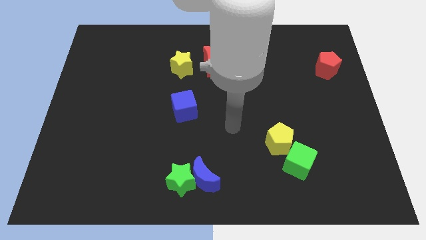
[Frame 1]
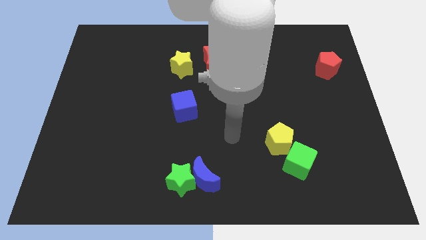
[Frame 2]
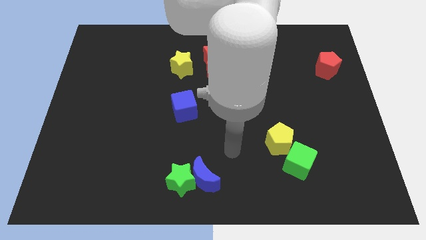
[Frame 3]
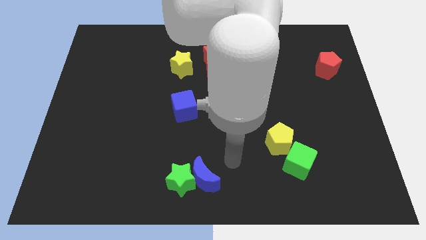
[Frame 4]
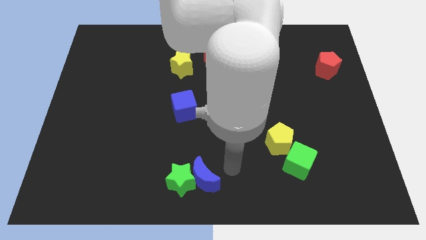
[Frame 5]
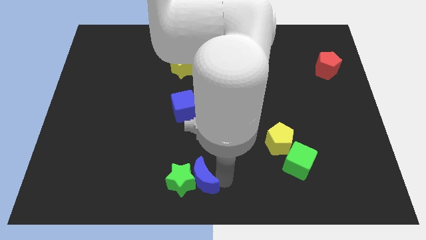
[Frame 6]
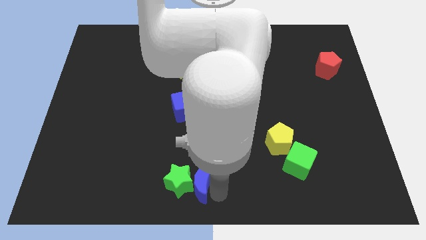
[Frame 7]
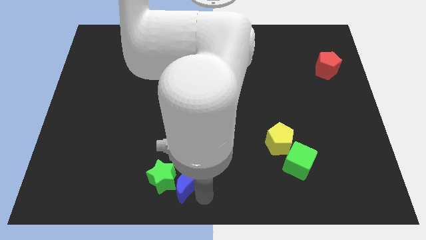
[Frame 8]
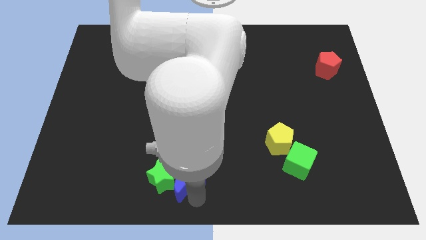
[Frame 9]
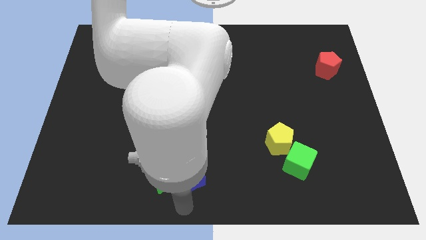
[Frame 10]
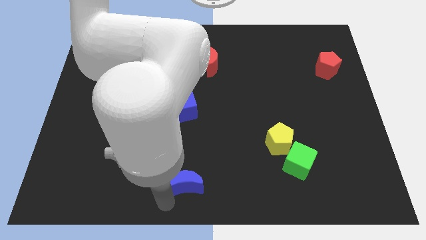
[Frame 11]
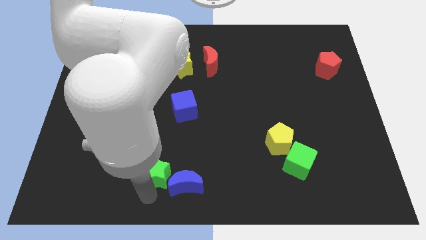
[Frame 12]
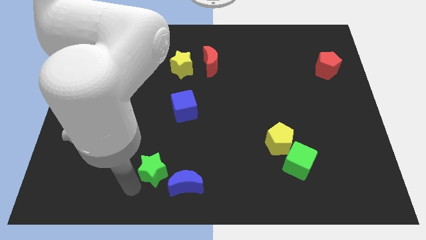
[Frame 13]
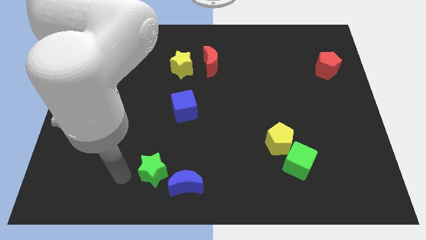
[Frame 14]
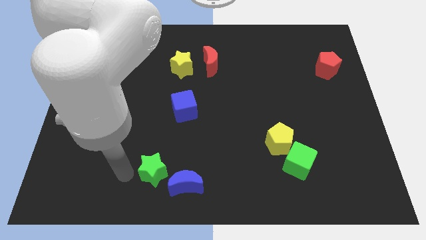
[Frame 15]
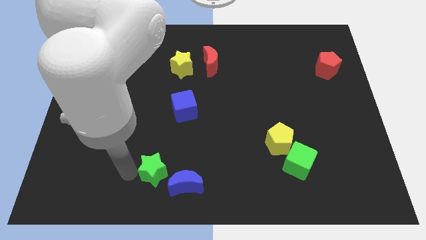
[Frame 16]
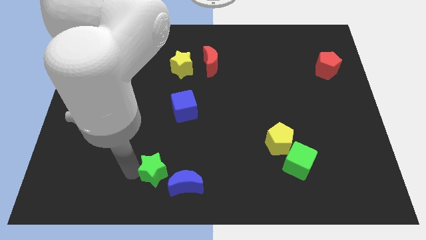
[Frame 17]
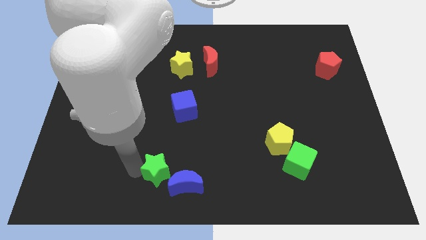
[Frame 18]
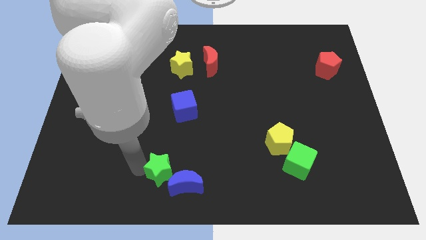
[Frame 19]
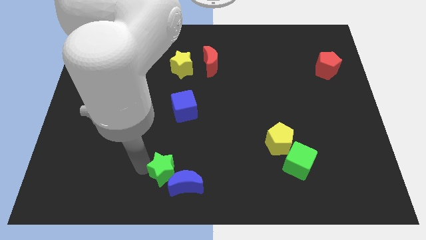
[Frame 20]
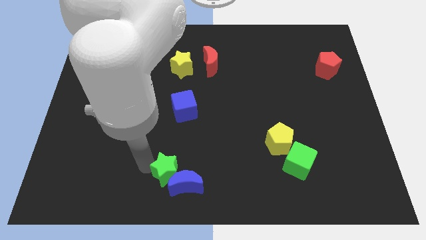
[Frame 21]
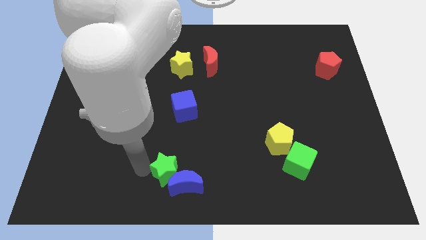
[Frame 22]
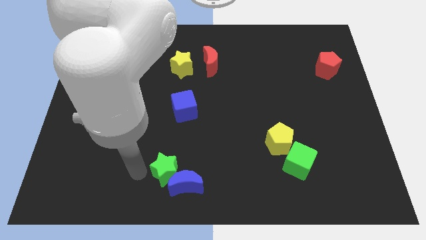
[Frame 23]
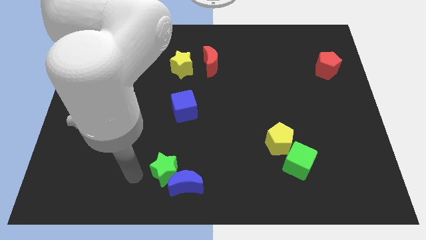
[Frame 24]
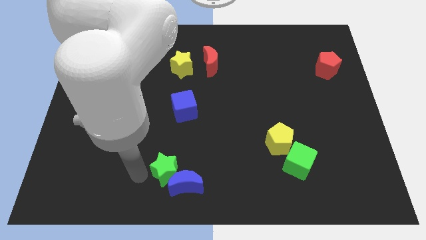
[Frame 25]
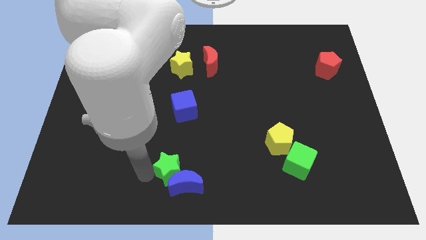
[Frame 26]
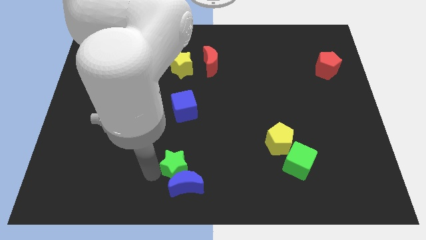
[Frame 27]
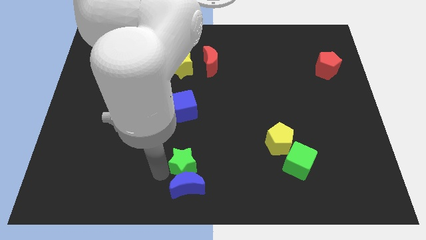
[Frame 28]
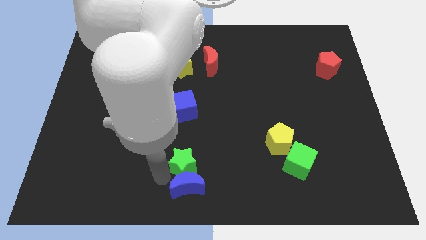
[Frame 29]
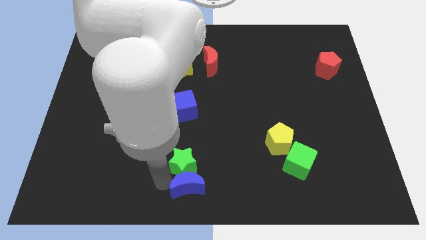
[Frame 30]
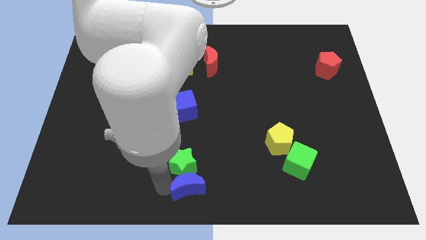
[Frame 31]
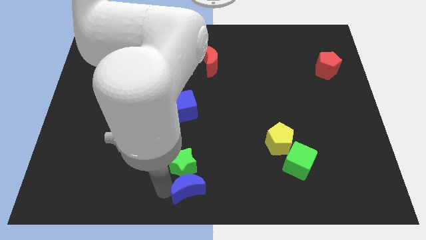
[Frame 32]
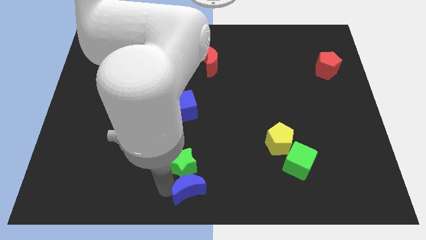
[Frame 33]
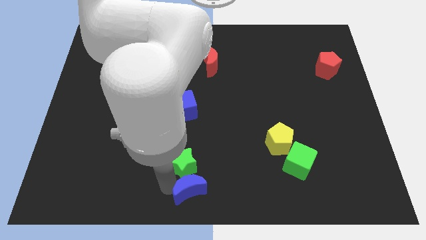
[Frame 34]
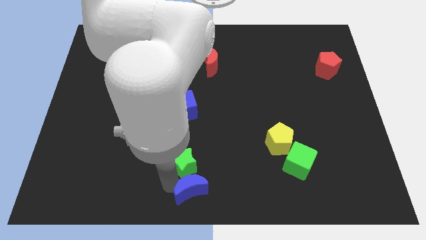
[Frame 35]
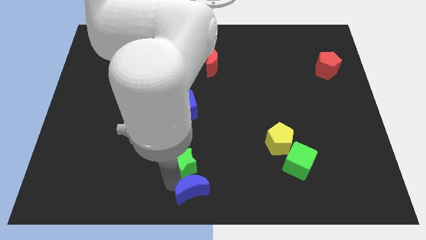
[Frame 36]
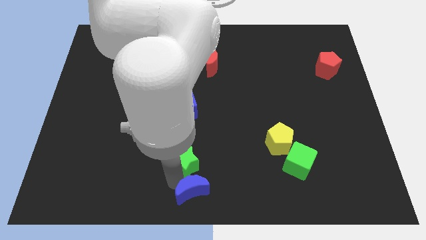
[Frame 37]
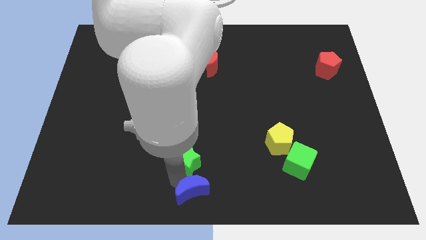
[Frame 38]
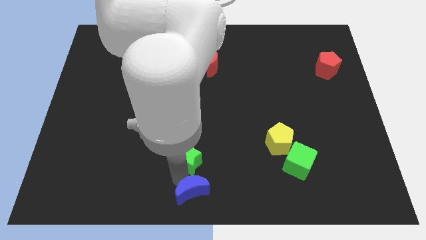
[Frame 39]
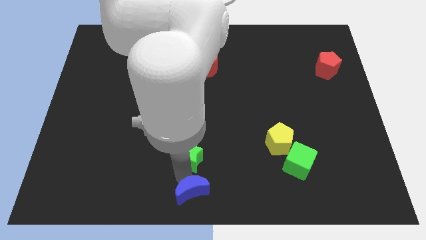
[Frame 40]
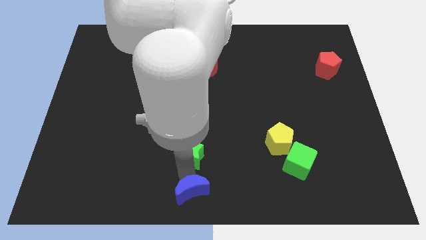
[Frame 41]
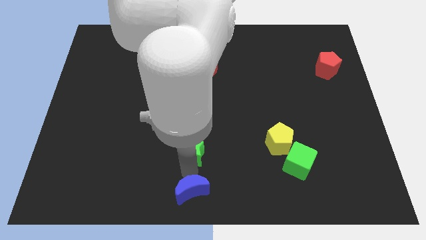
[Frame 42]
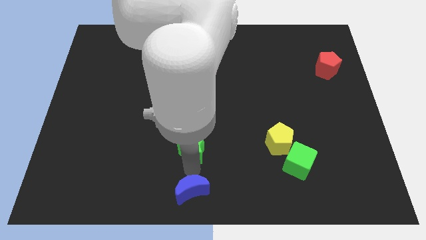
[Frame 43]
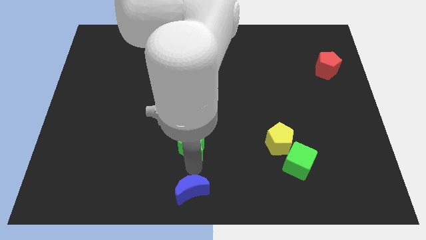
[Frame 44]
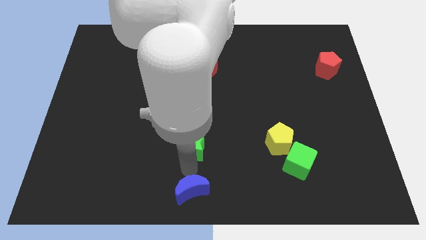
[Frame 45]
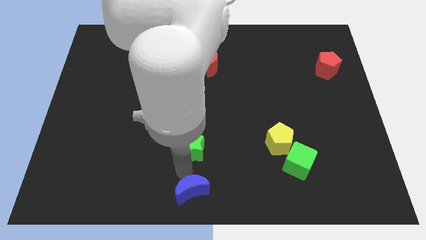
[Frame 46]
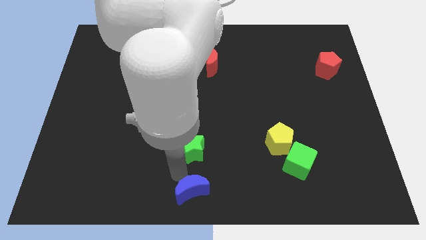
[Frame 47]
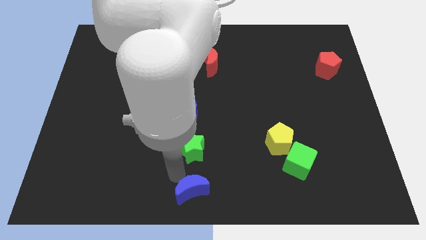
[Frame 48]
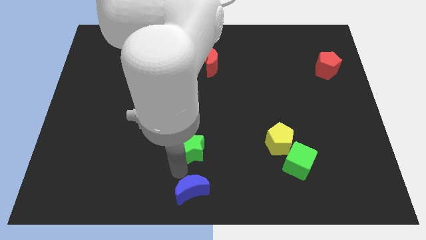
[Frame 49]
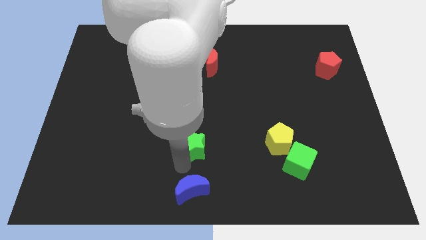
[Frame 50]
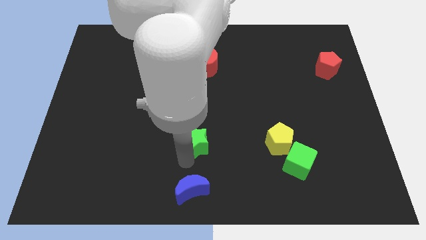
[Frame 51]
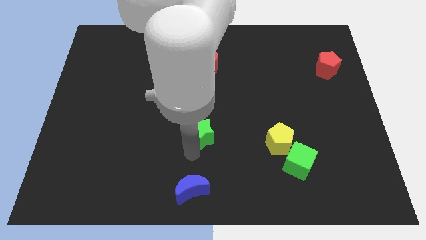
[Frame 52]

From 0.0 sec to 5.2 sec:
push the green star to the middle of the board

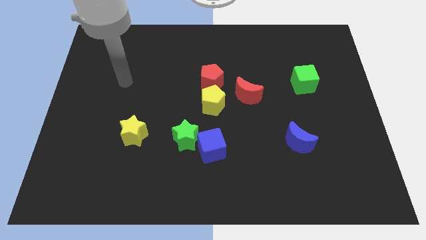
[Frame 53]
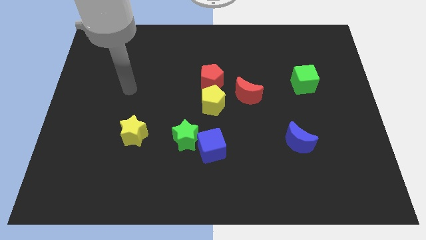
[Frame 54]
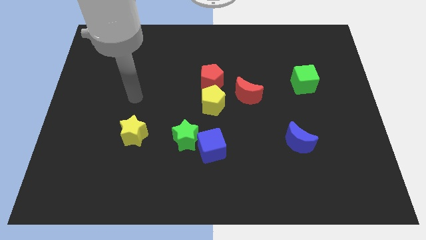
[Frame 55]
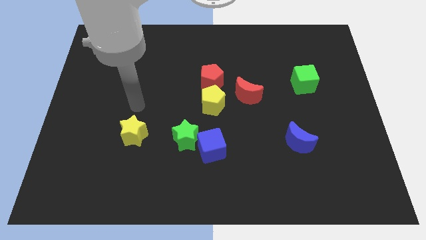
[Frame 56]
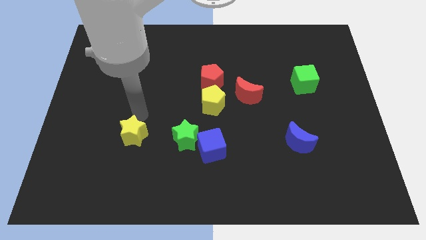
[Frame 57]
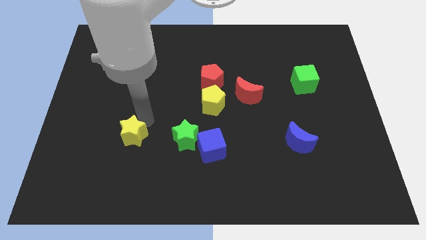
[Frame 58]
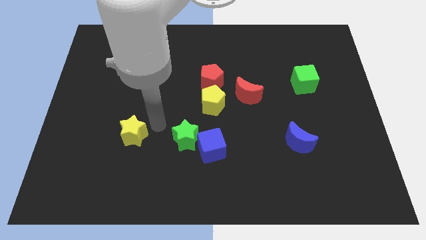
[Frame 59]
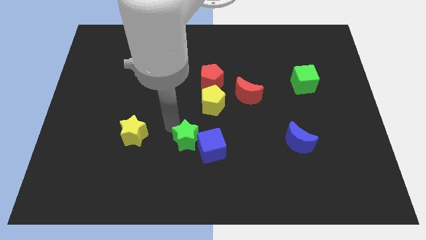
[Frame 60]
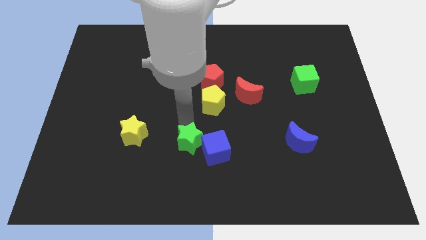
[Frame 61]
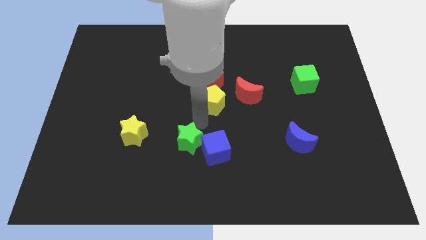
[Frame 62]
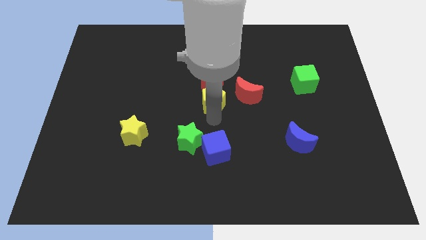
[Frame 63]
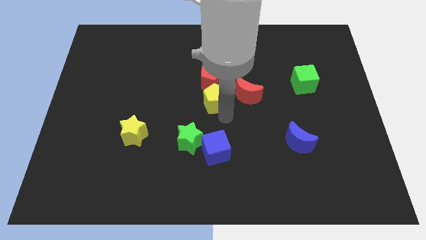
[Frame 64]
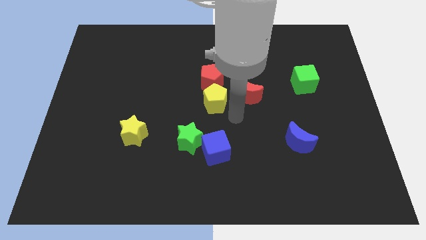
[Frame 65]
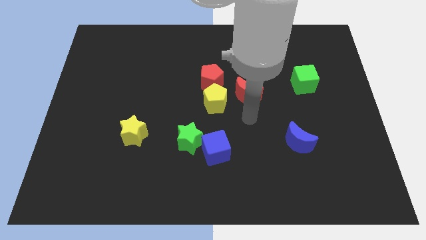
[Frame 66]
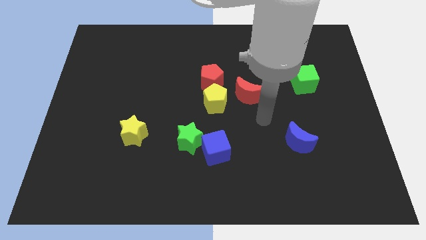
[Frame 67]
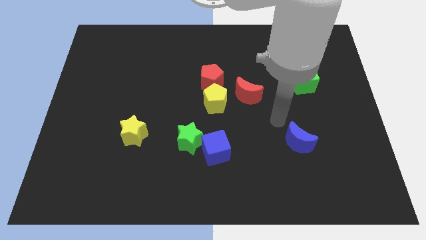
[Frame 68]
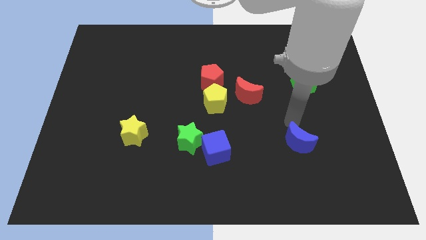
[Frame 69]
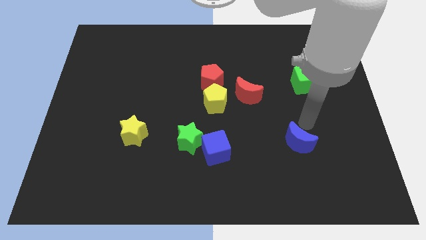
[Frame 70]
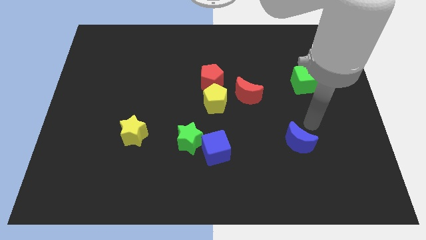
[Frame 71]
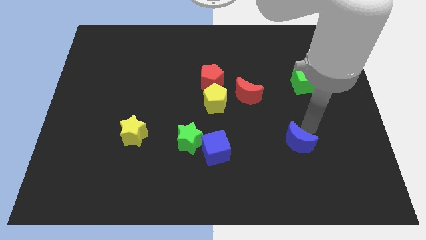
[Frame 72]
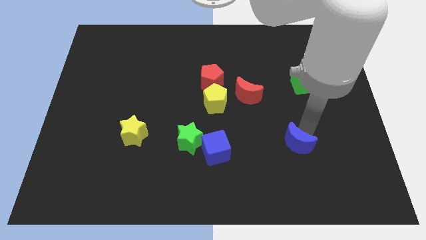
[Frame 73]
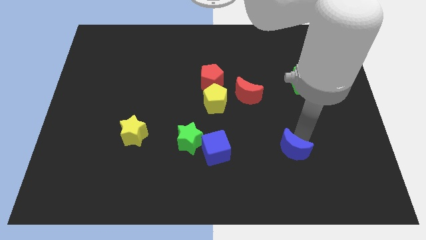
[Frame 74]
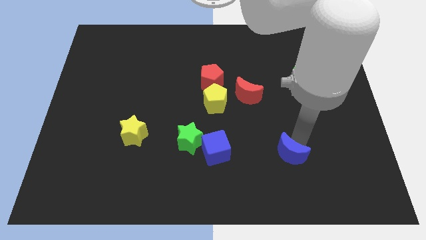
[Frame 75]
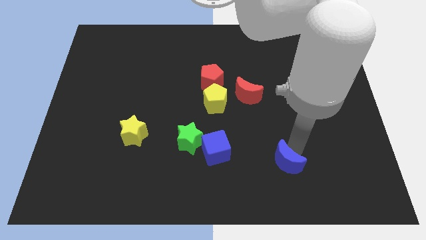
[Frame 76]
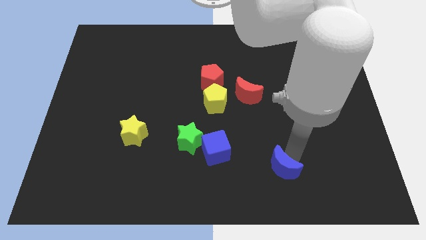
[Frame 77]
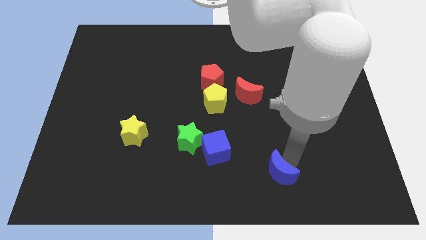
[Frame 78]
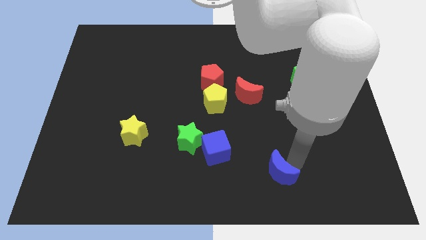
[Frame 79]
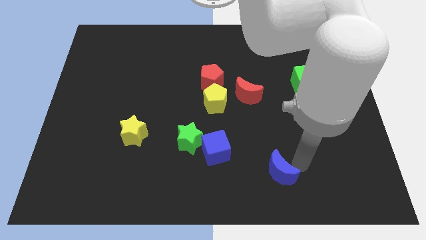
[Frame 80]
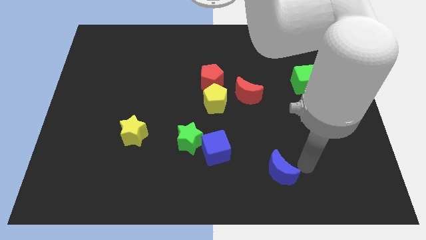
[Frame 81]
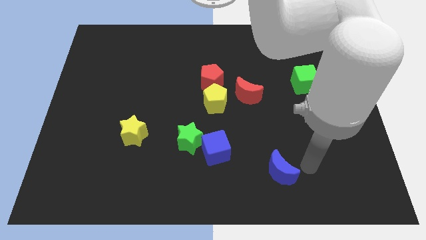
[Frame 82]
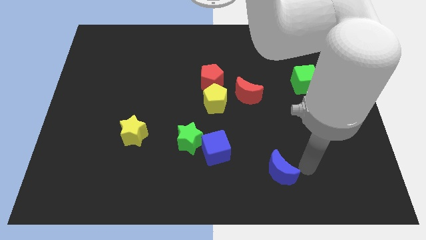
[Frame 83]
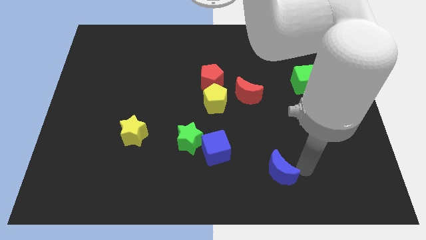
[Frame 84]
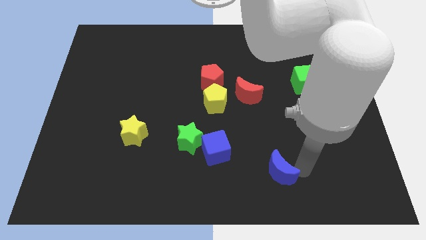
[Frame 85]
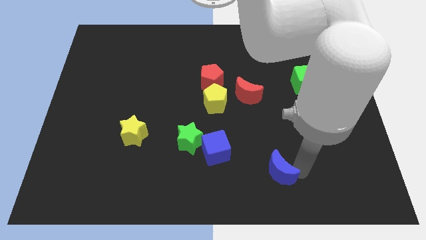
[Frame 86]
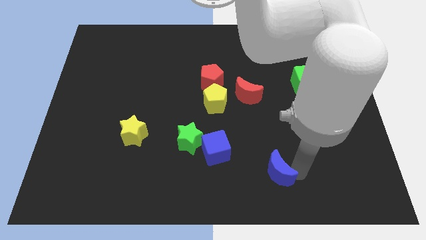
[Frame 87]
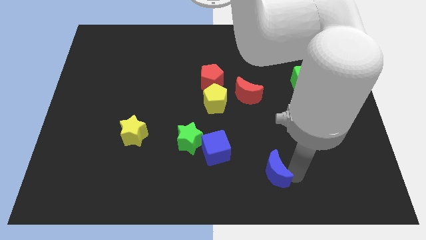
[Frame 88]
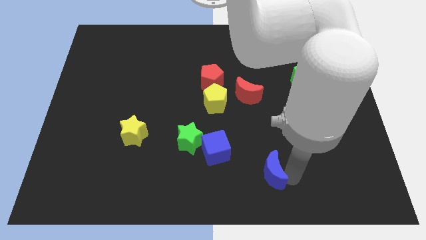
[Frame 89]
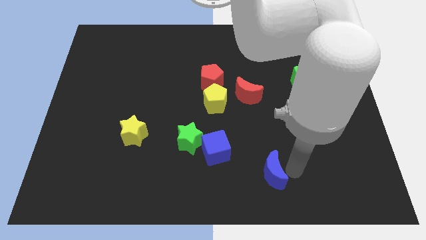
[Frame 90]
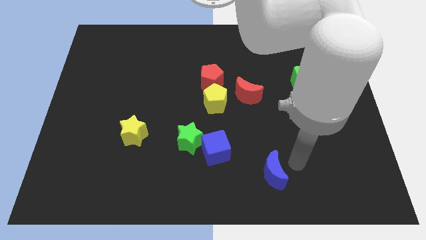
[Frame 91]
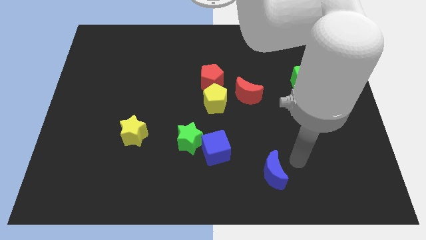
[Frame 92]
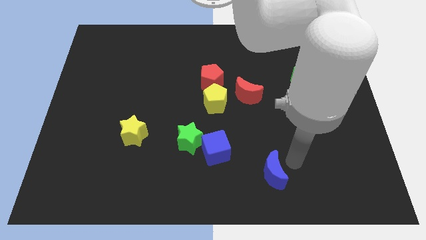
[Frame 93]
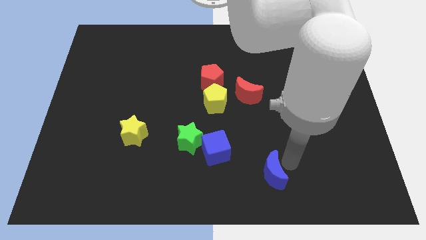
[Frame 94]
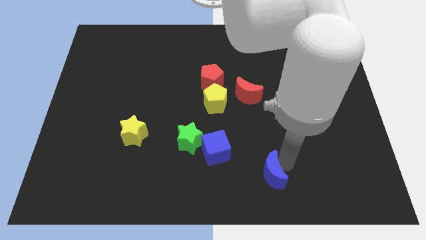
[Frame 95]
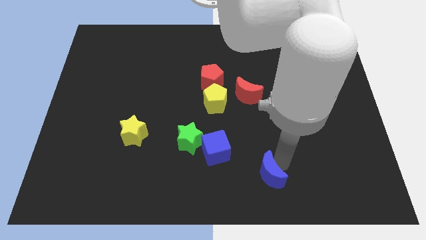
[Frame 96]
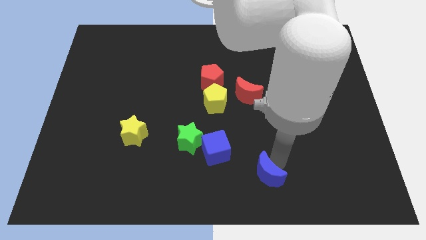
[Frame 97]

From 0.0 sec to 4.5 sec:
push the blue moon to the bottom
